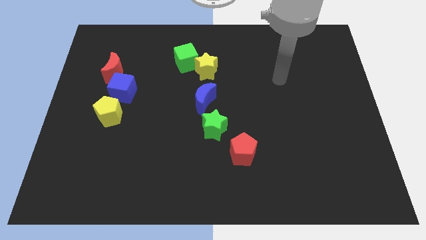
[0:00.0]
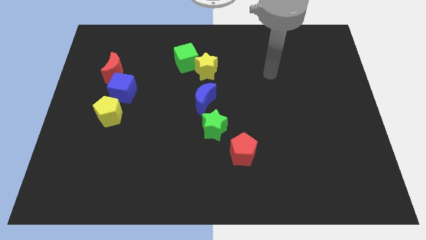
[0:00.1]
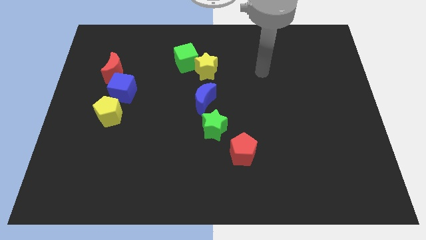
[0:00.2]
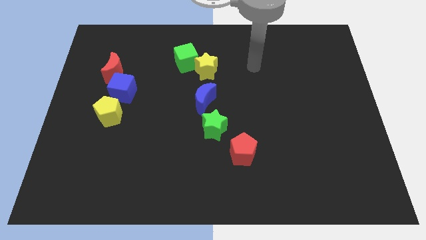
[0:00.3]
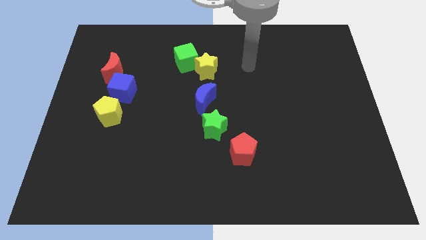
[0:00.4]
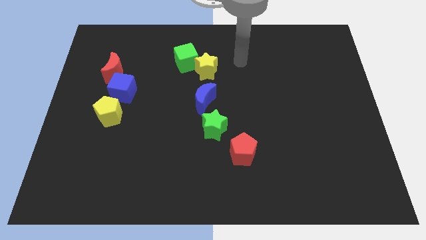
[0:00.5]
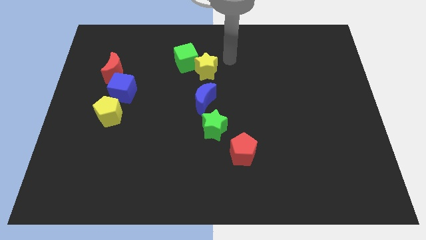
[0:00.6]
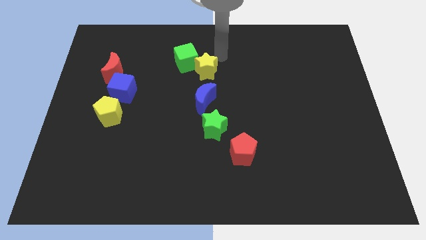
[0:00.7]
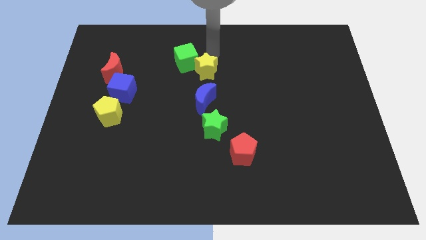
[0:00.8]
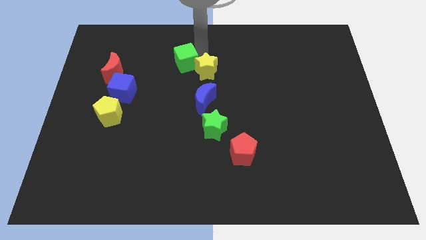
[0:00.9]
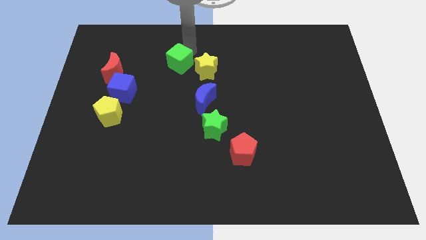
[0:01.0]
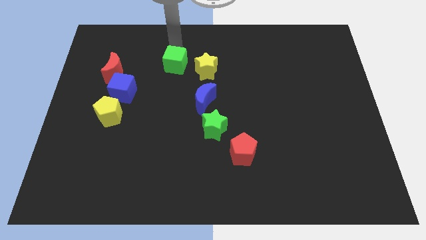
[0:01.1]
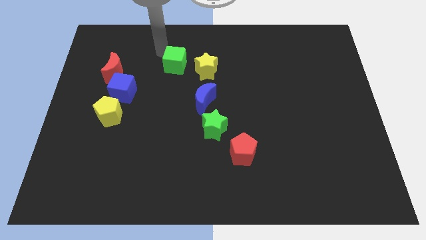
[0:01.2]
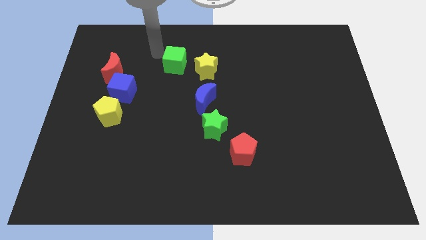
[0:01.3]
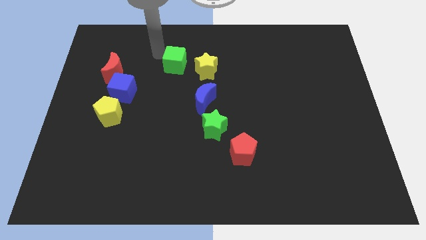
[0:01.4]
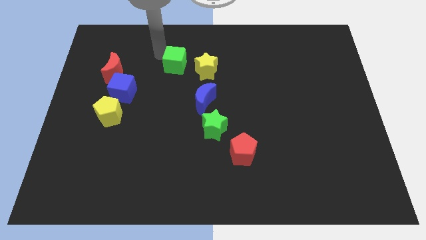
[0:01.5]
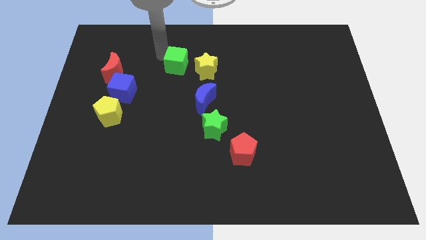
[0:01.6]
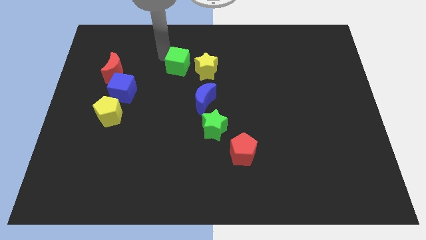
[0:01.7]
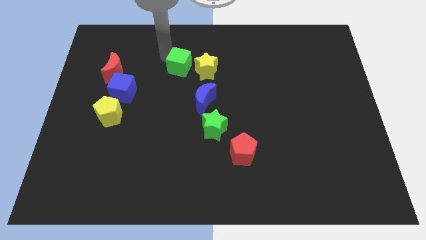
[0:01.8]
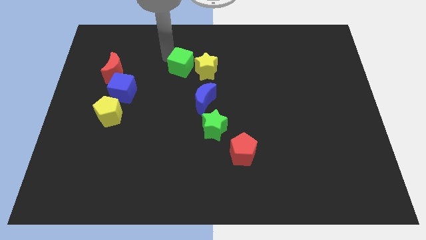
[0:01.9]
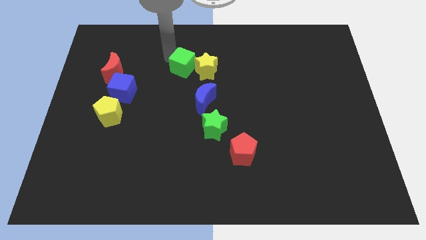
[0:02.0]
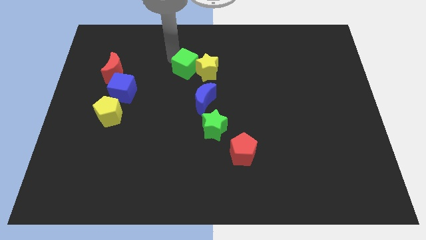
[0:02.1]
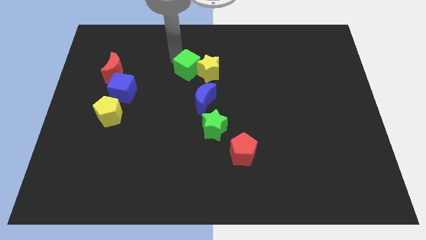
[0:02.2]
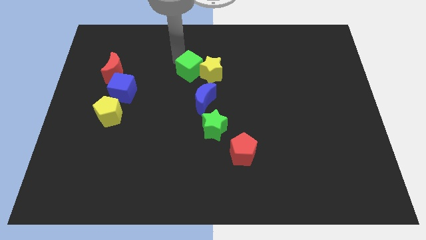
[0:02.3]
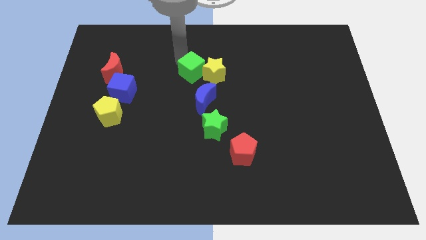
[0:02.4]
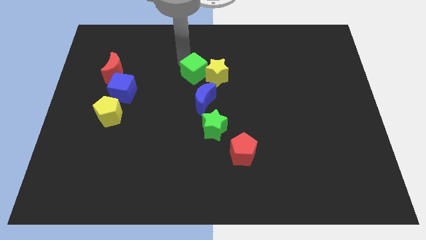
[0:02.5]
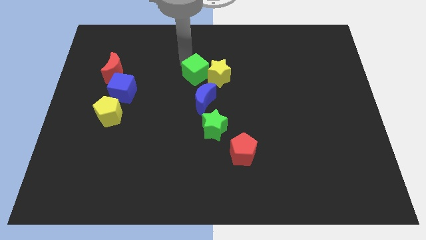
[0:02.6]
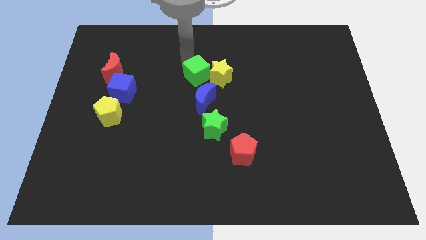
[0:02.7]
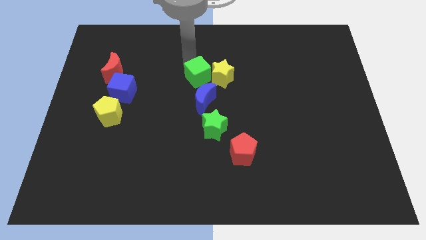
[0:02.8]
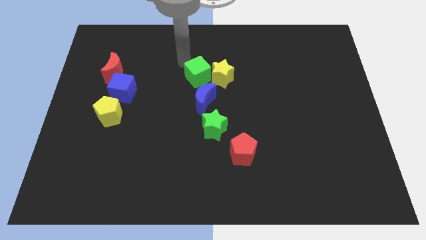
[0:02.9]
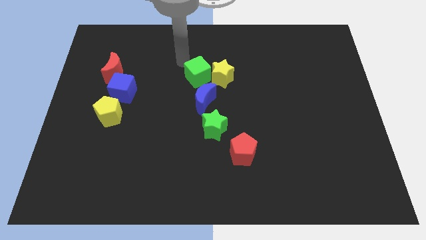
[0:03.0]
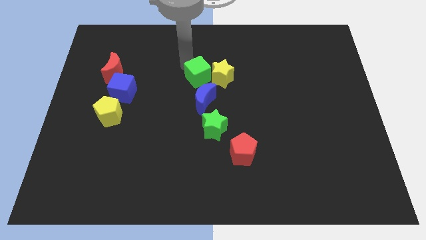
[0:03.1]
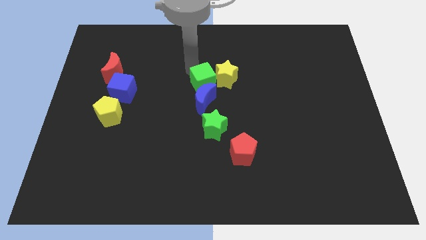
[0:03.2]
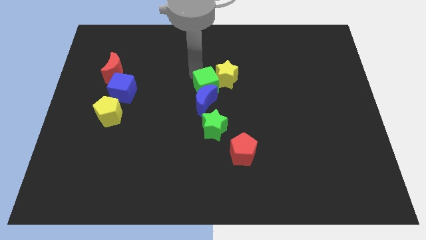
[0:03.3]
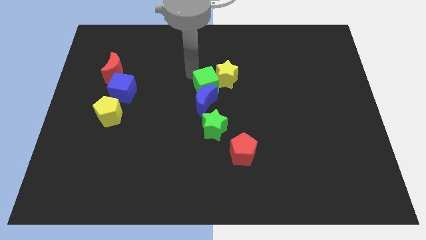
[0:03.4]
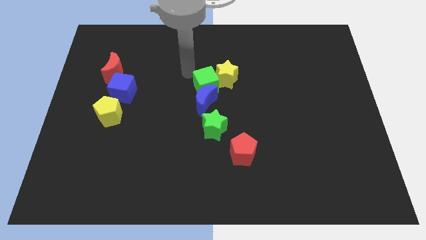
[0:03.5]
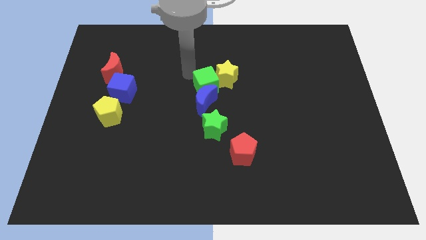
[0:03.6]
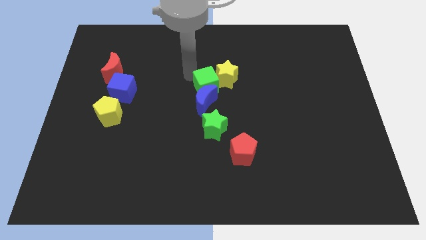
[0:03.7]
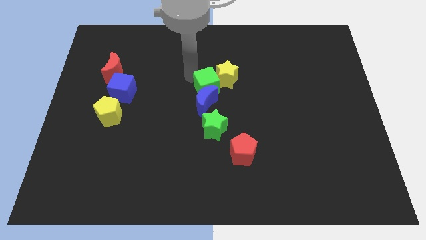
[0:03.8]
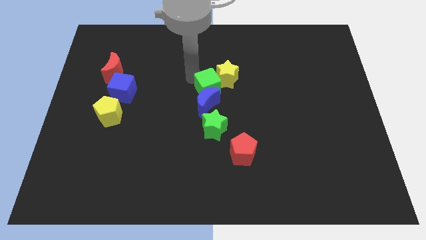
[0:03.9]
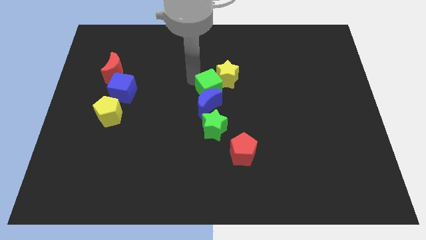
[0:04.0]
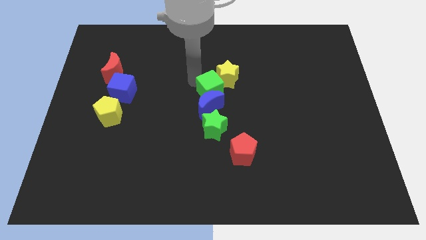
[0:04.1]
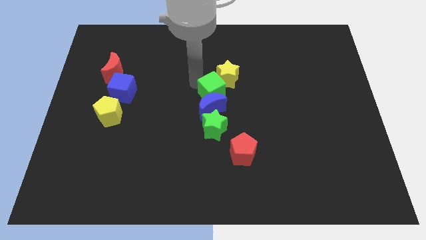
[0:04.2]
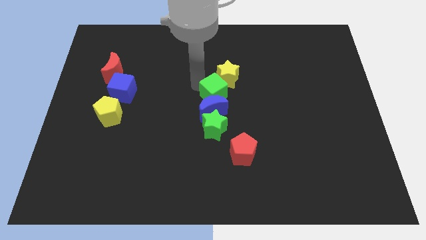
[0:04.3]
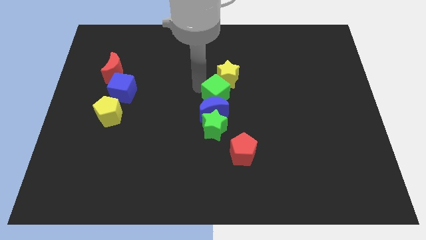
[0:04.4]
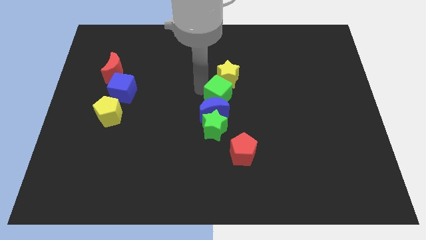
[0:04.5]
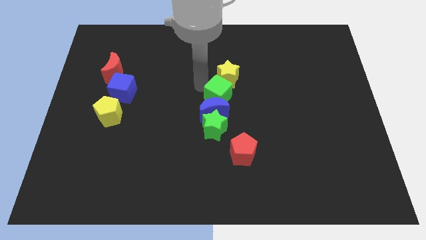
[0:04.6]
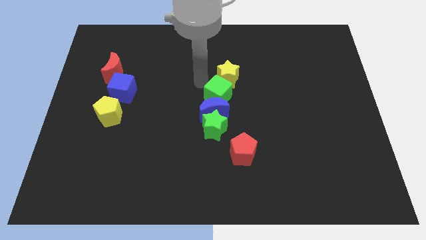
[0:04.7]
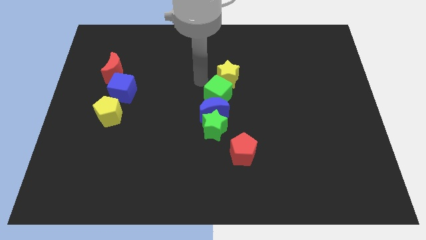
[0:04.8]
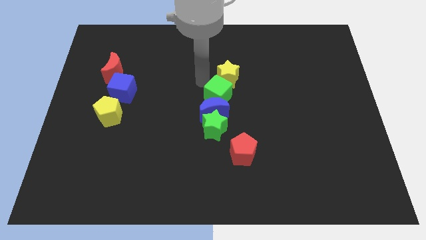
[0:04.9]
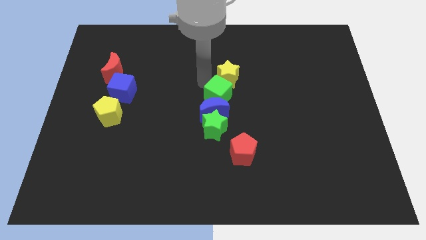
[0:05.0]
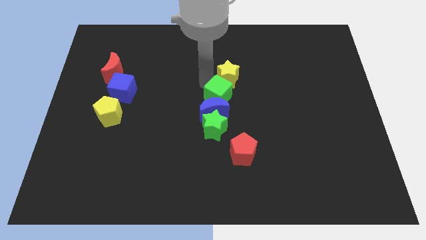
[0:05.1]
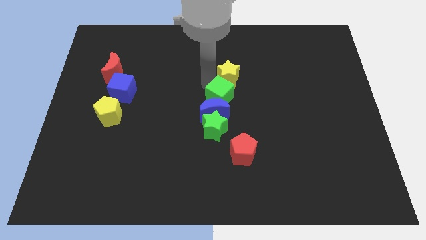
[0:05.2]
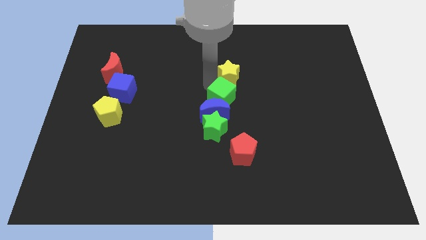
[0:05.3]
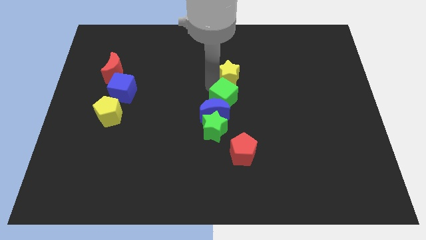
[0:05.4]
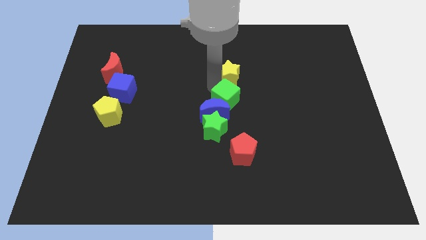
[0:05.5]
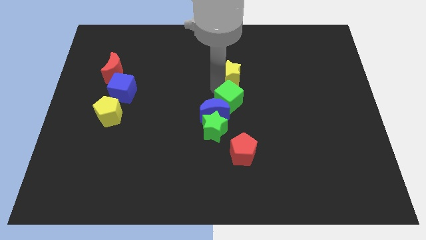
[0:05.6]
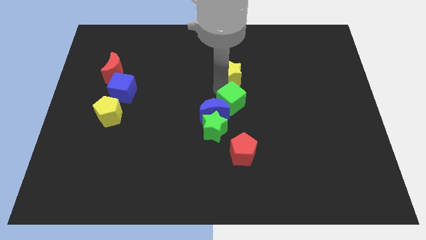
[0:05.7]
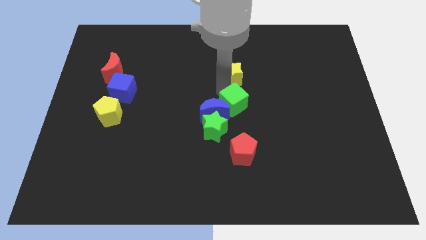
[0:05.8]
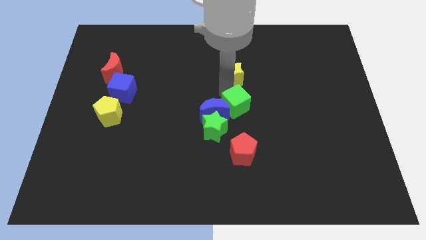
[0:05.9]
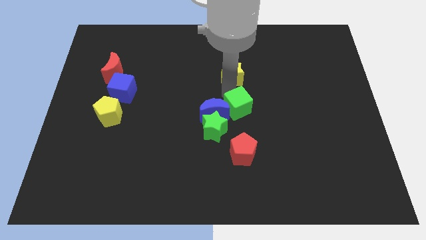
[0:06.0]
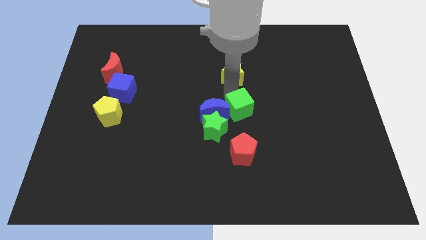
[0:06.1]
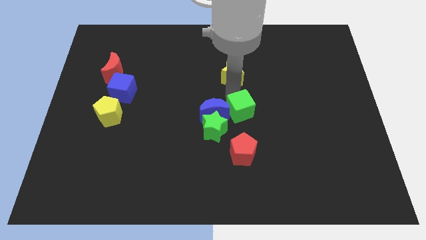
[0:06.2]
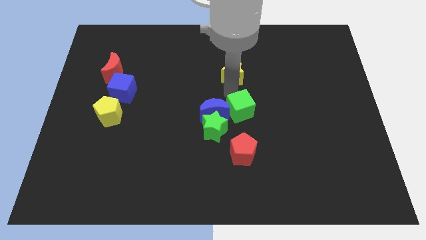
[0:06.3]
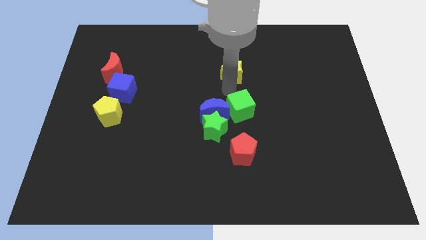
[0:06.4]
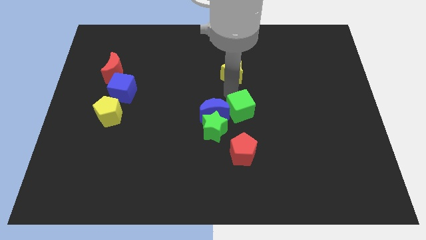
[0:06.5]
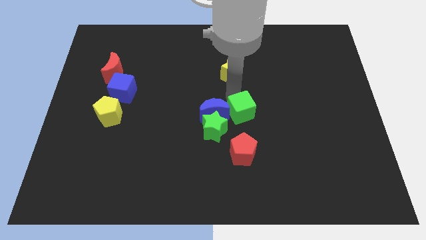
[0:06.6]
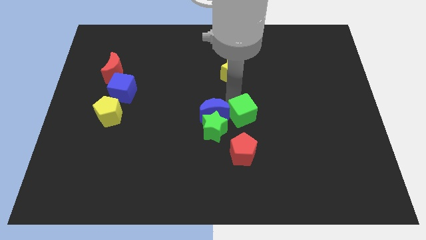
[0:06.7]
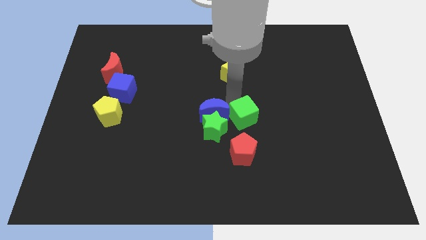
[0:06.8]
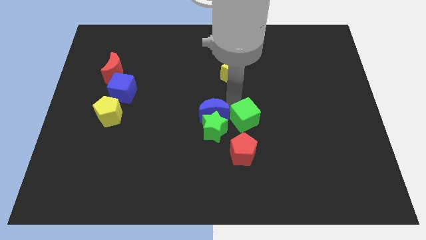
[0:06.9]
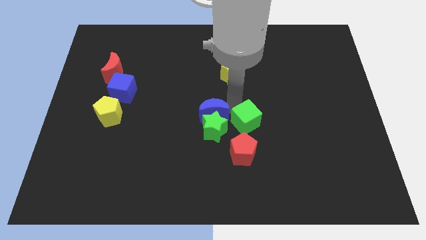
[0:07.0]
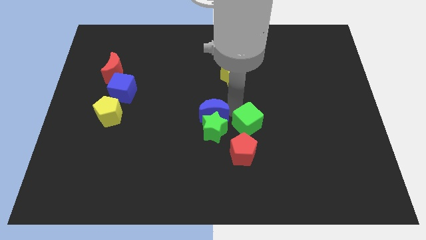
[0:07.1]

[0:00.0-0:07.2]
slide the green cube to the top right side of the red pentagon
